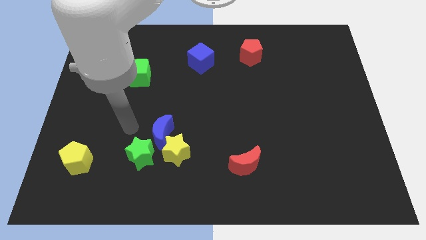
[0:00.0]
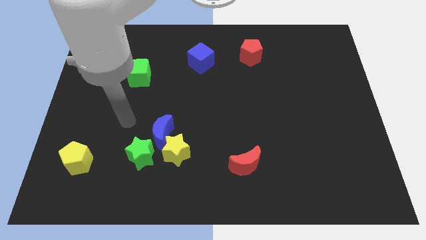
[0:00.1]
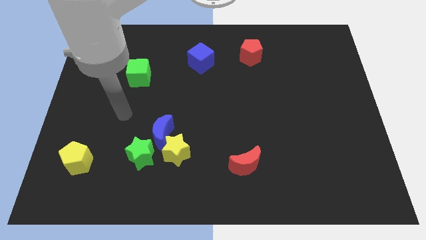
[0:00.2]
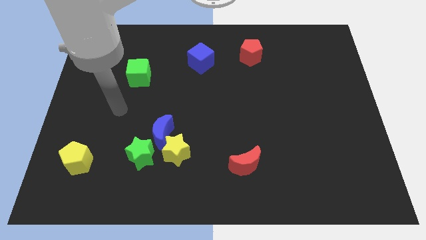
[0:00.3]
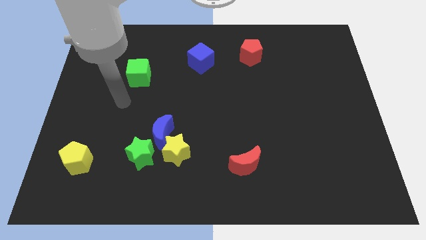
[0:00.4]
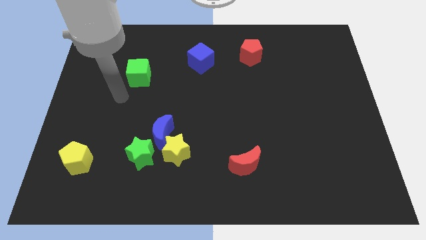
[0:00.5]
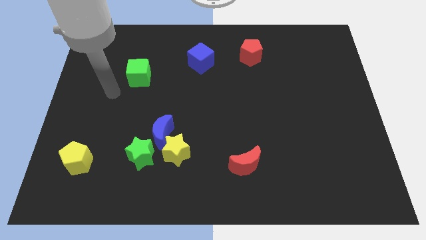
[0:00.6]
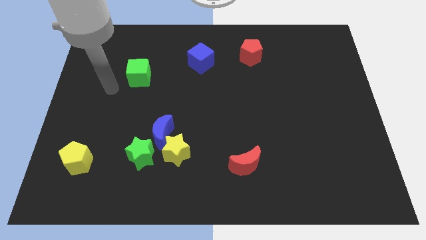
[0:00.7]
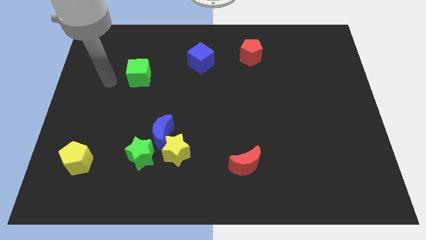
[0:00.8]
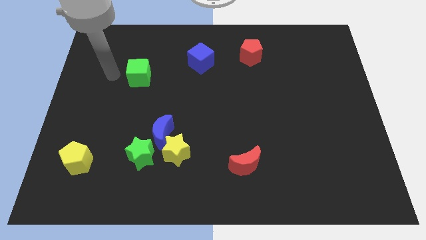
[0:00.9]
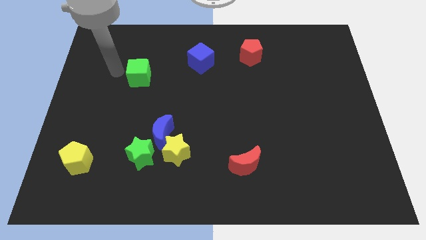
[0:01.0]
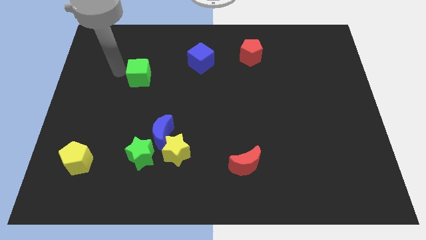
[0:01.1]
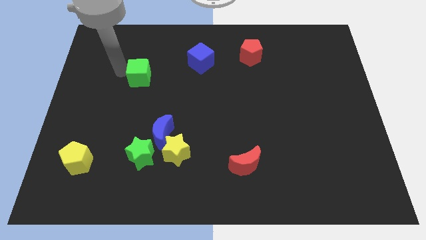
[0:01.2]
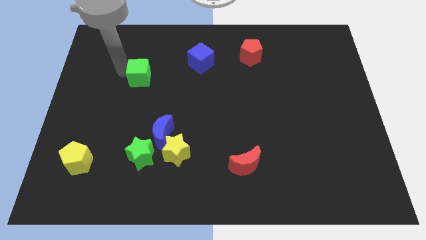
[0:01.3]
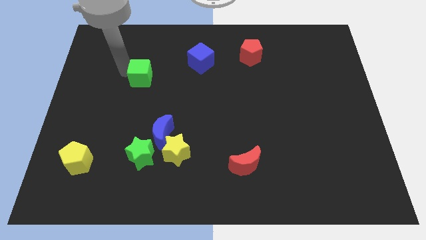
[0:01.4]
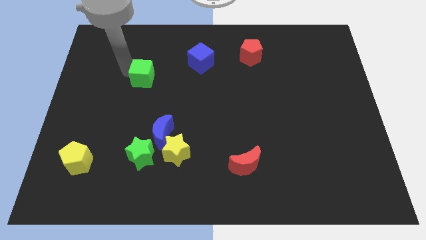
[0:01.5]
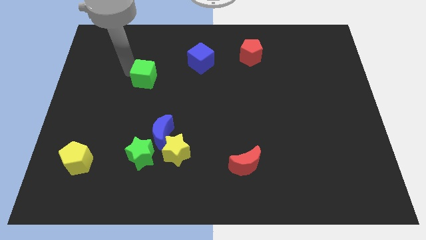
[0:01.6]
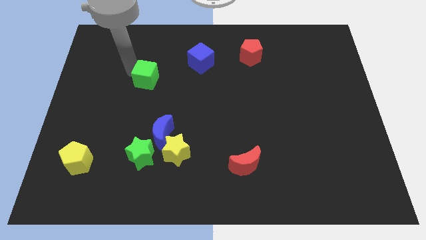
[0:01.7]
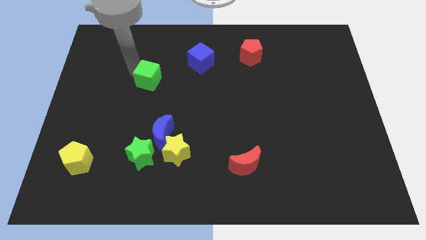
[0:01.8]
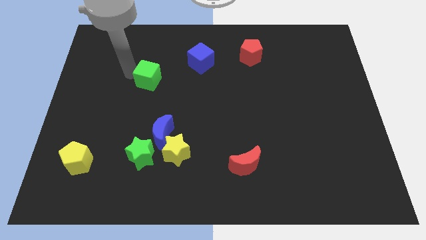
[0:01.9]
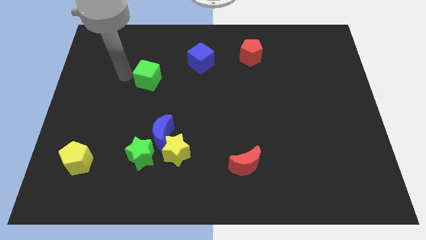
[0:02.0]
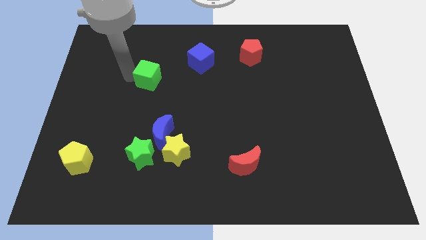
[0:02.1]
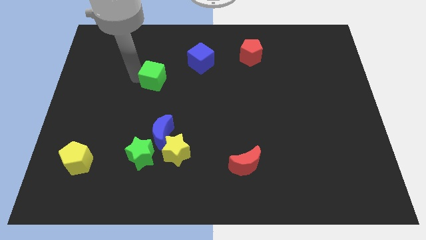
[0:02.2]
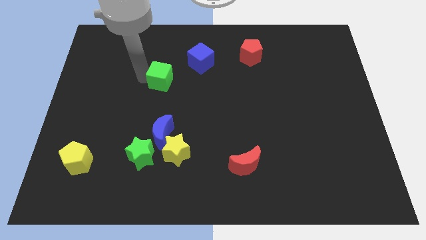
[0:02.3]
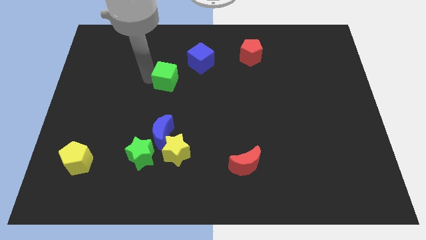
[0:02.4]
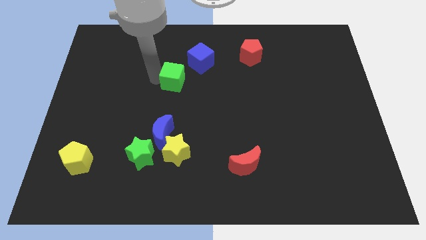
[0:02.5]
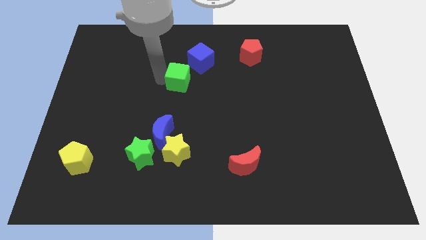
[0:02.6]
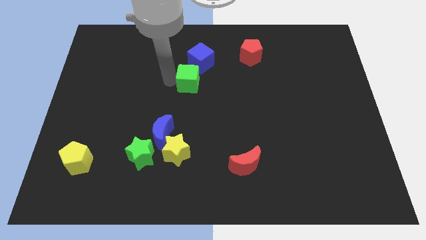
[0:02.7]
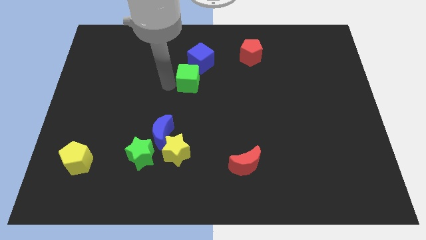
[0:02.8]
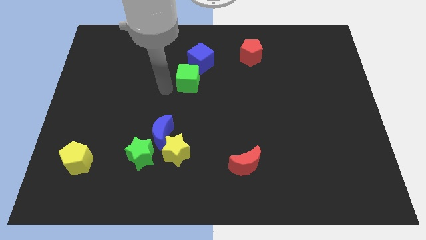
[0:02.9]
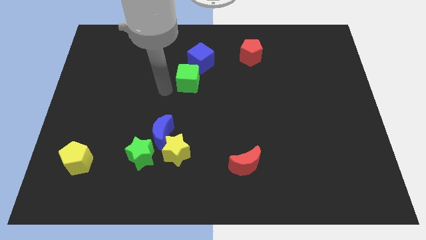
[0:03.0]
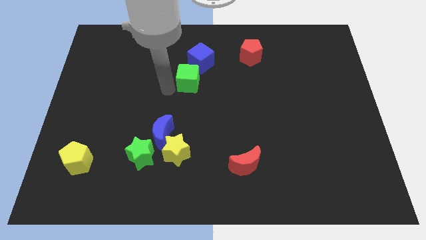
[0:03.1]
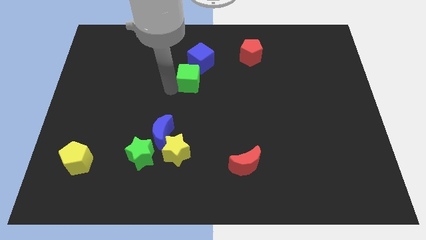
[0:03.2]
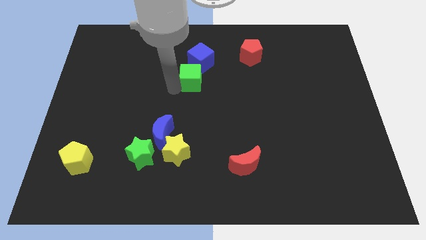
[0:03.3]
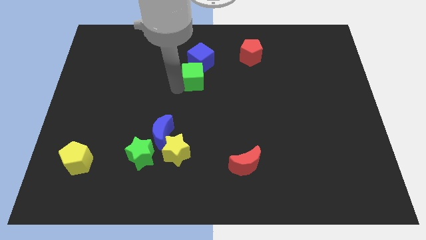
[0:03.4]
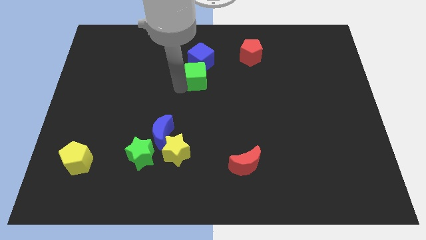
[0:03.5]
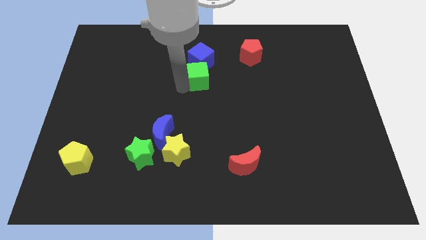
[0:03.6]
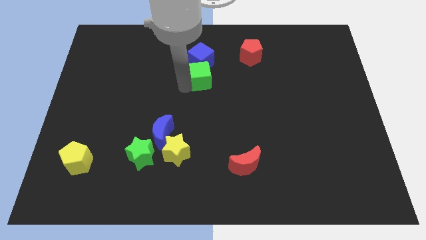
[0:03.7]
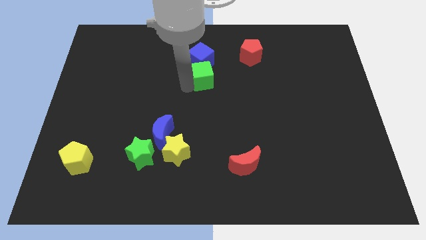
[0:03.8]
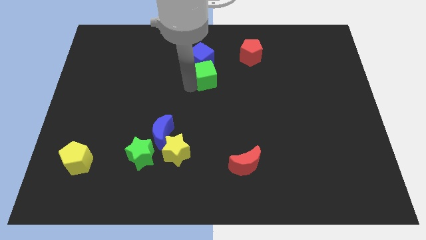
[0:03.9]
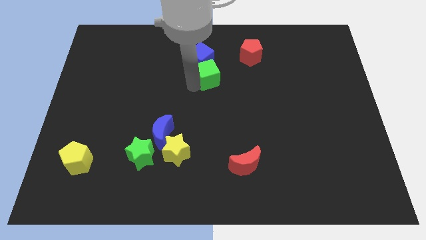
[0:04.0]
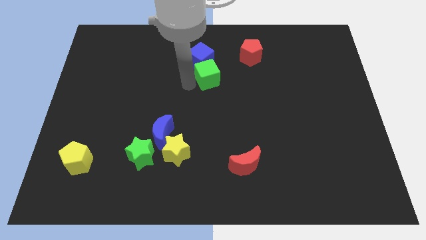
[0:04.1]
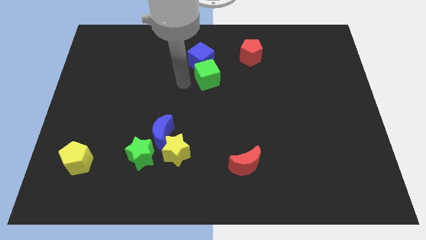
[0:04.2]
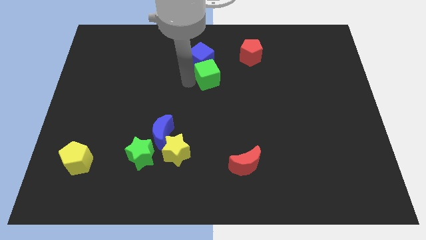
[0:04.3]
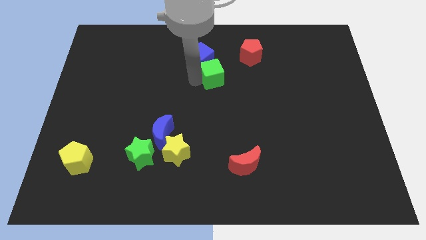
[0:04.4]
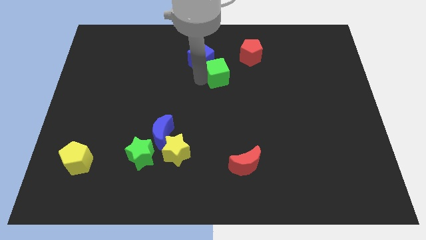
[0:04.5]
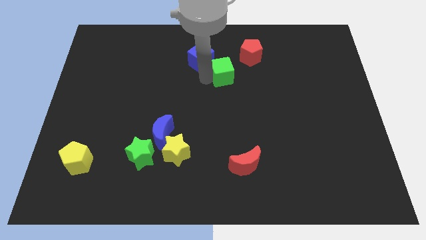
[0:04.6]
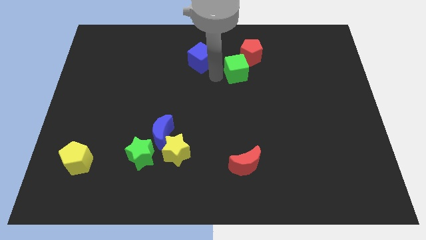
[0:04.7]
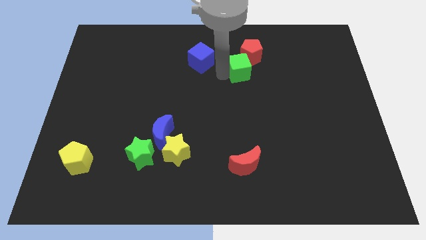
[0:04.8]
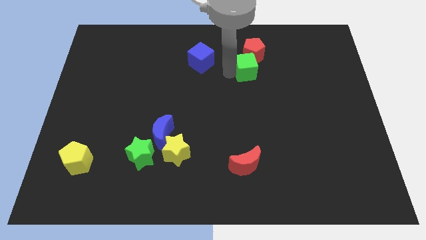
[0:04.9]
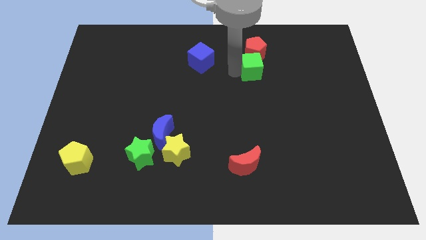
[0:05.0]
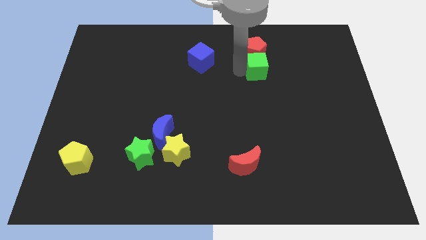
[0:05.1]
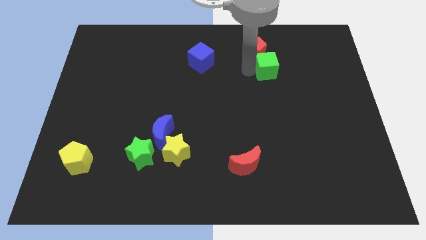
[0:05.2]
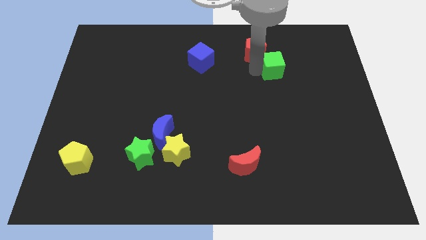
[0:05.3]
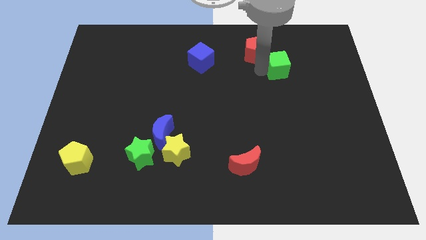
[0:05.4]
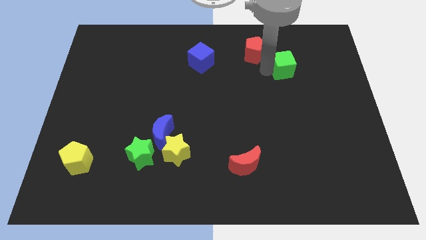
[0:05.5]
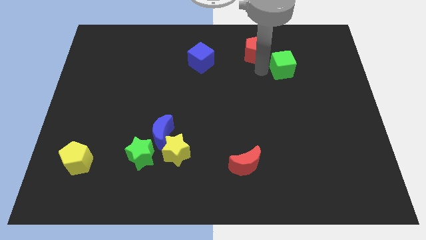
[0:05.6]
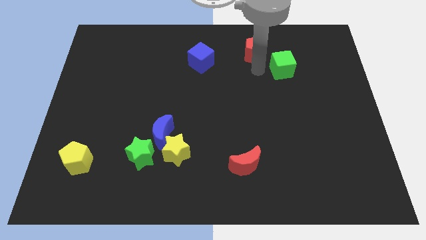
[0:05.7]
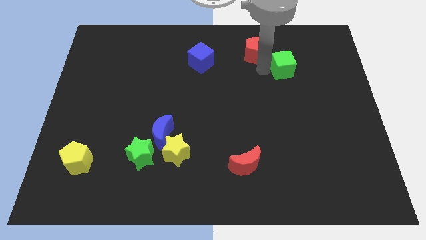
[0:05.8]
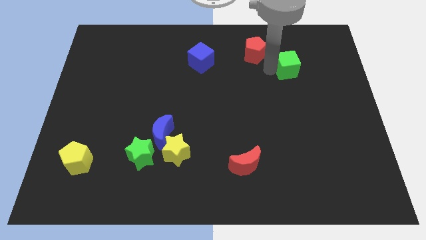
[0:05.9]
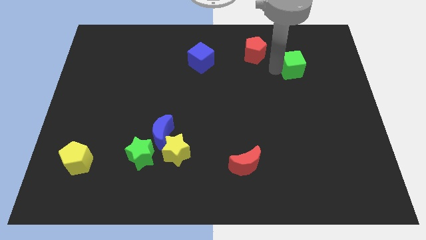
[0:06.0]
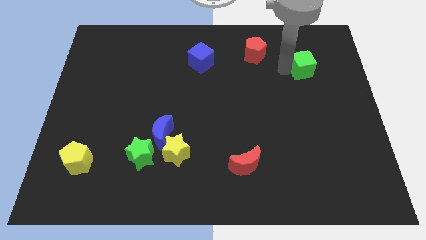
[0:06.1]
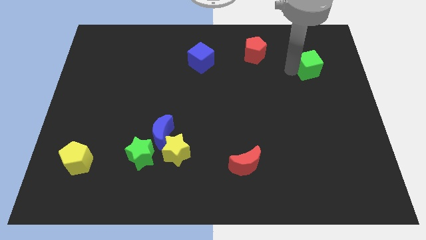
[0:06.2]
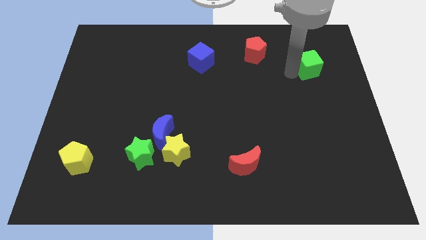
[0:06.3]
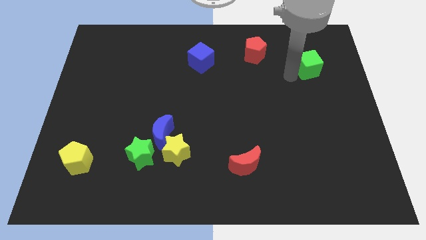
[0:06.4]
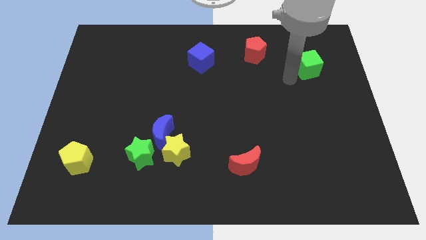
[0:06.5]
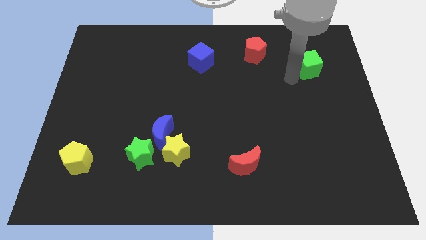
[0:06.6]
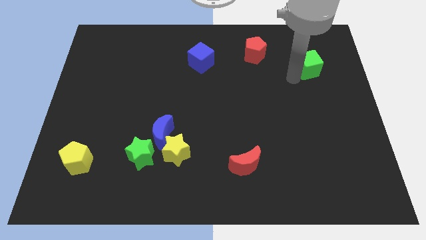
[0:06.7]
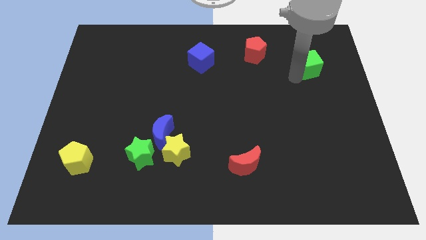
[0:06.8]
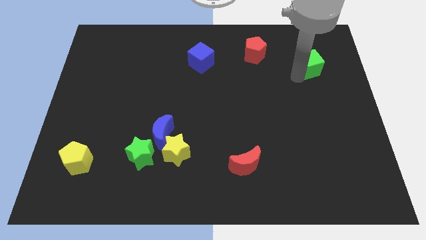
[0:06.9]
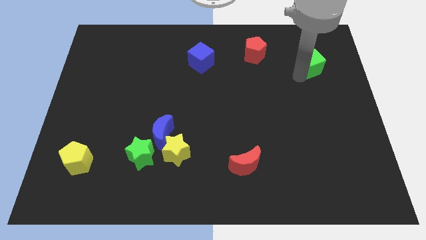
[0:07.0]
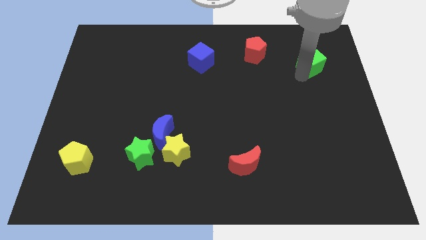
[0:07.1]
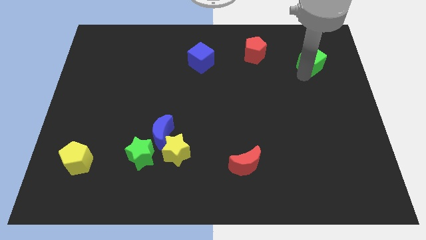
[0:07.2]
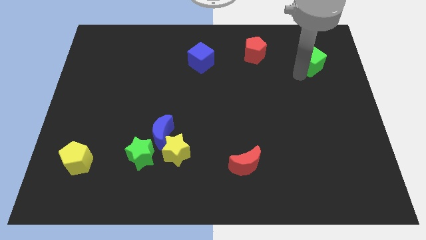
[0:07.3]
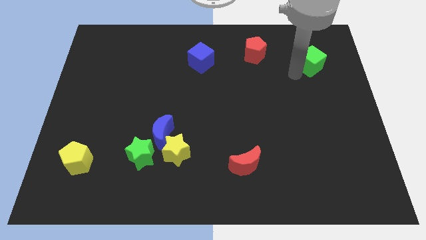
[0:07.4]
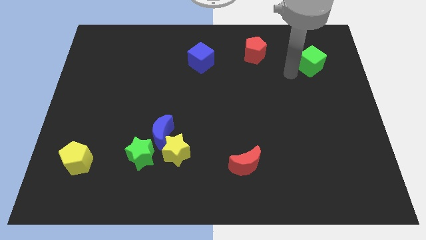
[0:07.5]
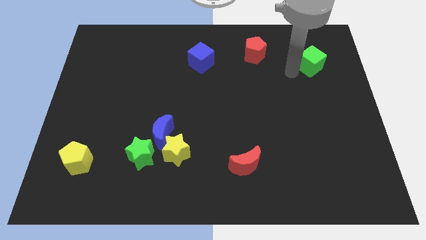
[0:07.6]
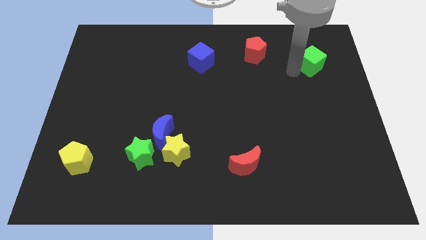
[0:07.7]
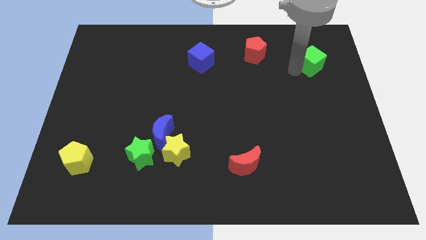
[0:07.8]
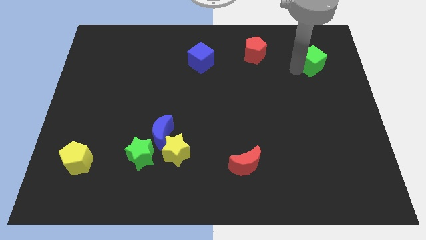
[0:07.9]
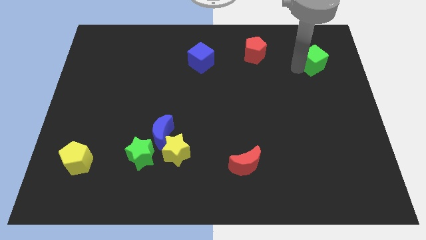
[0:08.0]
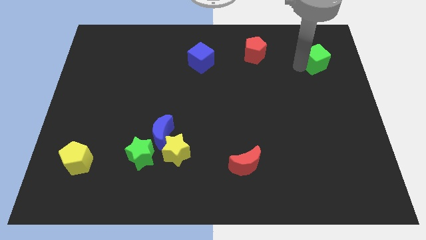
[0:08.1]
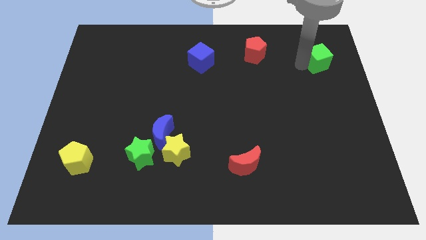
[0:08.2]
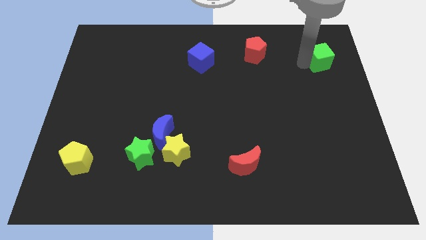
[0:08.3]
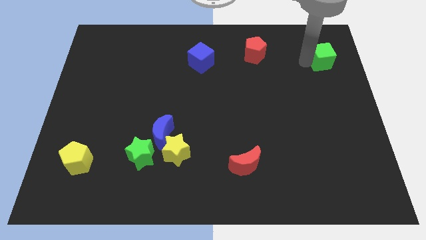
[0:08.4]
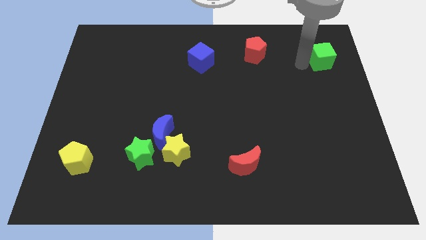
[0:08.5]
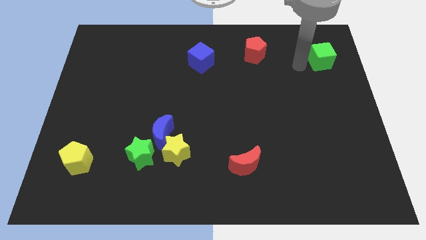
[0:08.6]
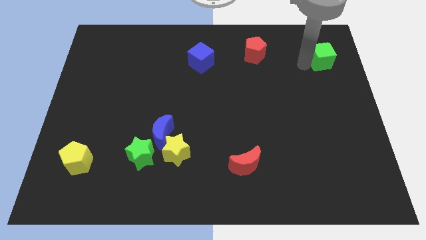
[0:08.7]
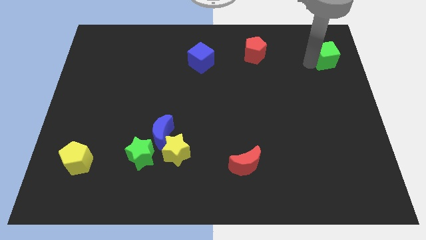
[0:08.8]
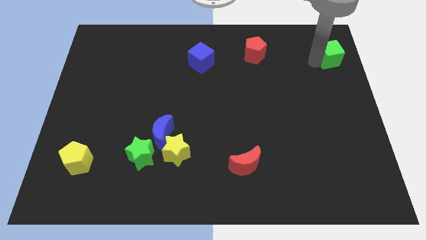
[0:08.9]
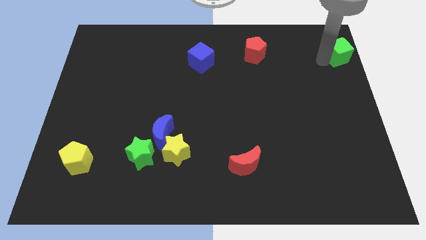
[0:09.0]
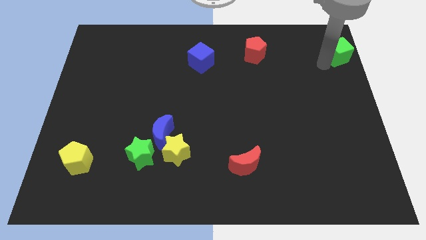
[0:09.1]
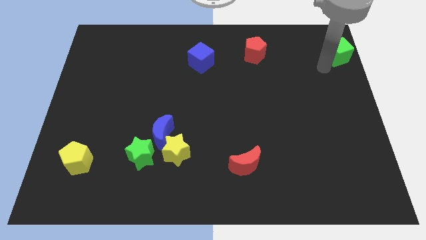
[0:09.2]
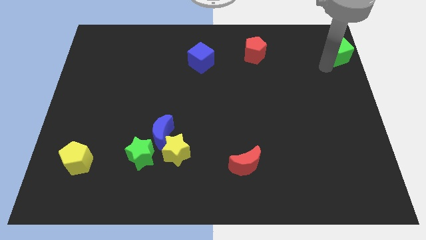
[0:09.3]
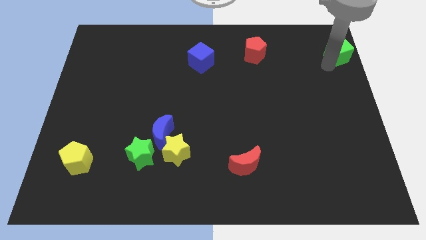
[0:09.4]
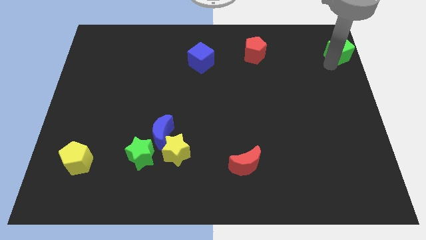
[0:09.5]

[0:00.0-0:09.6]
push the green cube to the upper right corner
